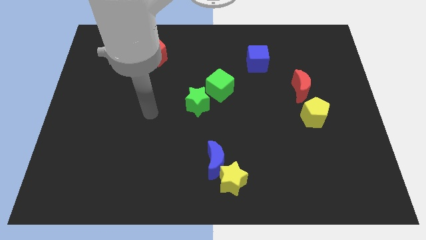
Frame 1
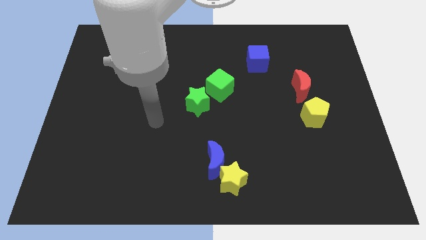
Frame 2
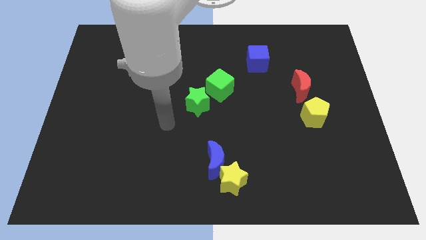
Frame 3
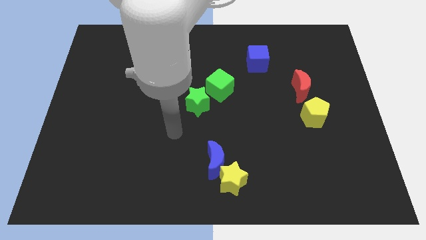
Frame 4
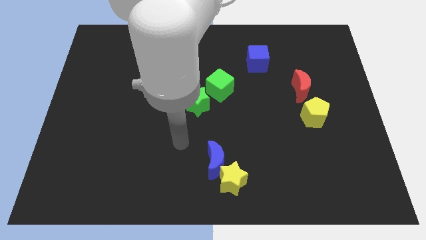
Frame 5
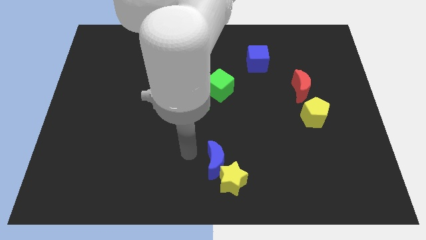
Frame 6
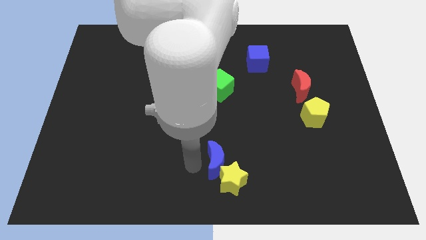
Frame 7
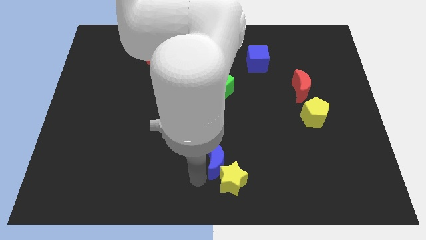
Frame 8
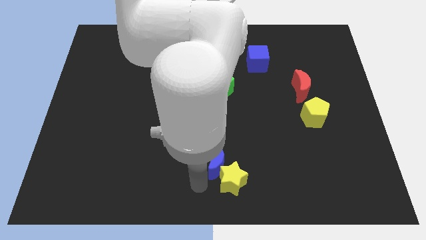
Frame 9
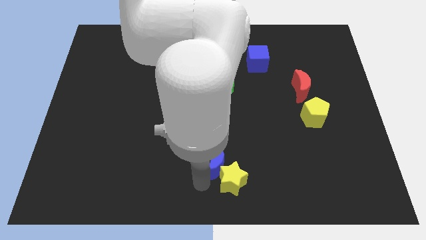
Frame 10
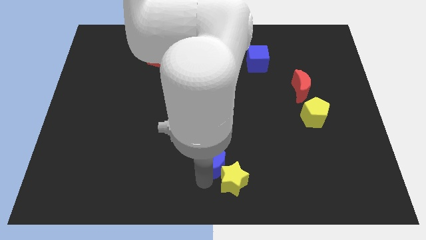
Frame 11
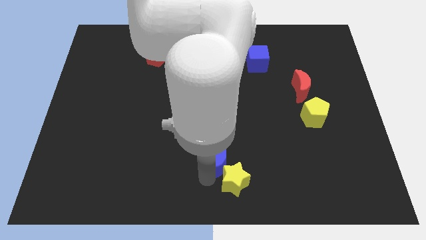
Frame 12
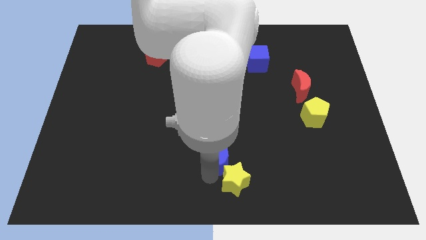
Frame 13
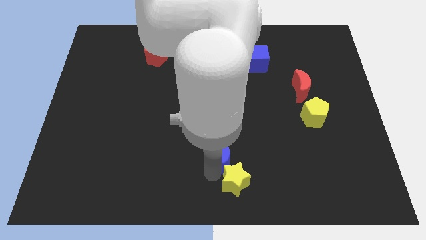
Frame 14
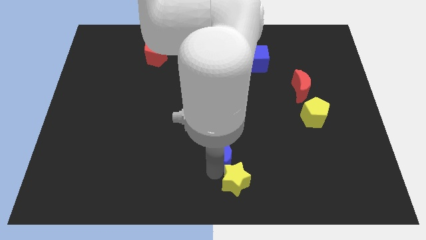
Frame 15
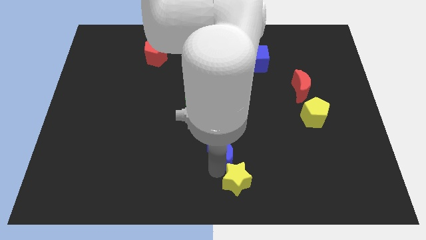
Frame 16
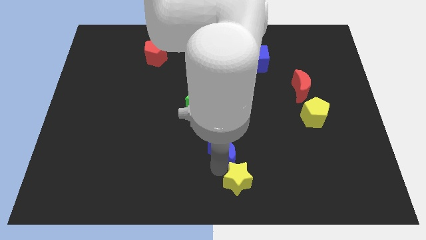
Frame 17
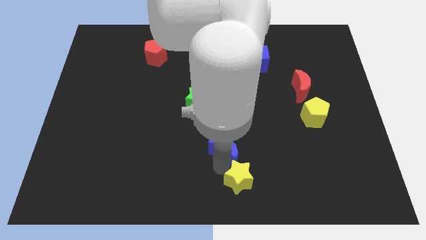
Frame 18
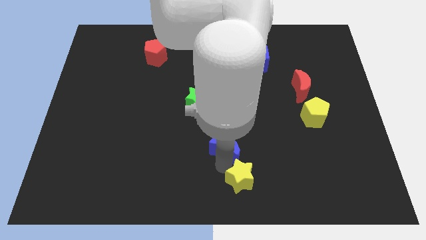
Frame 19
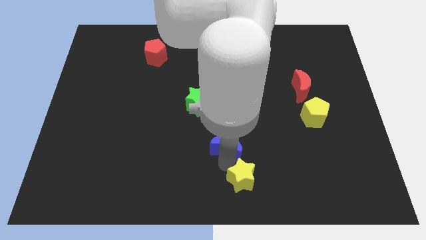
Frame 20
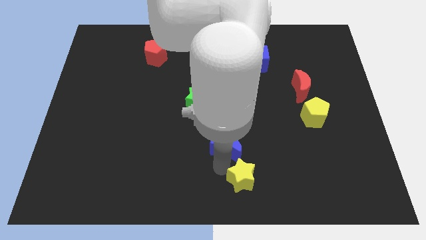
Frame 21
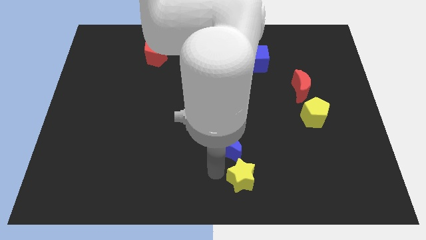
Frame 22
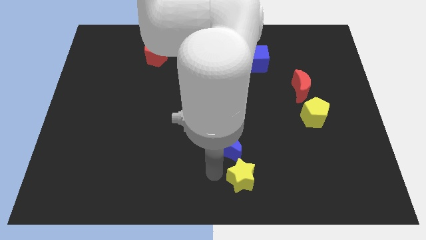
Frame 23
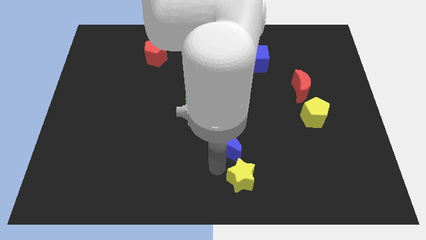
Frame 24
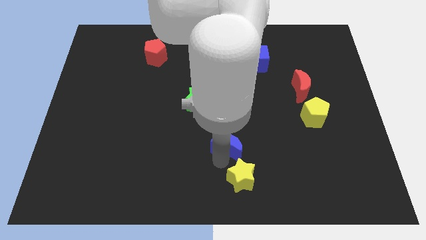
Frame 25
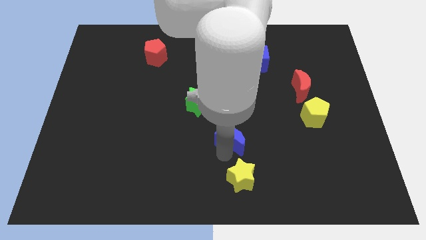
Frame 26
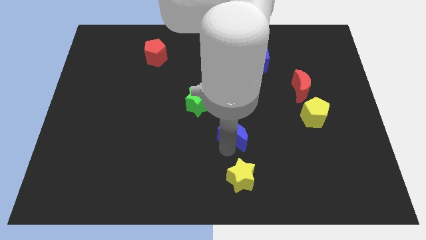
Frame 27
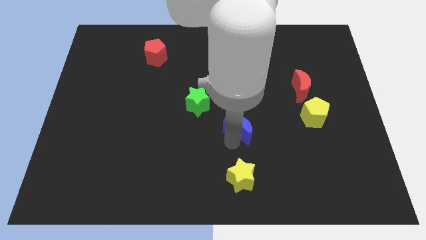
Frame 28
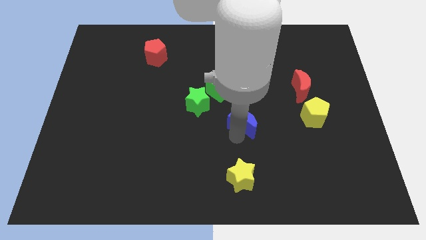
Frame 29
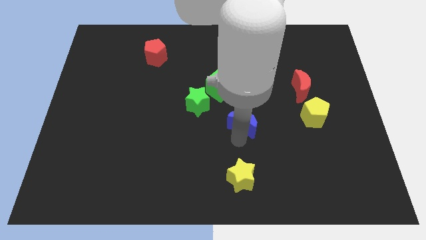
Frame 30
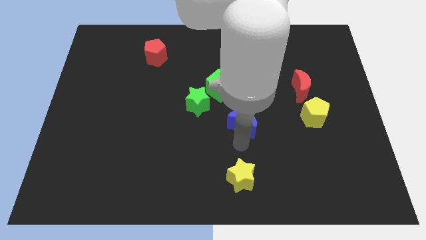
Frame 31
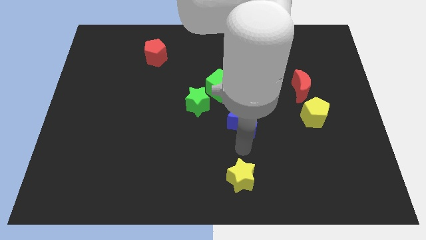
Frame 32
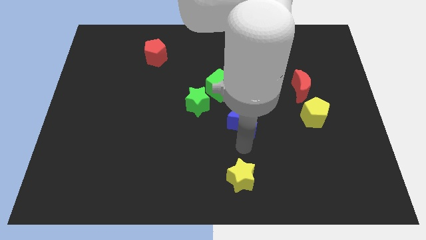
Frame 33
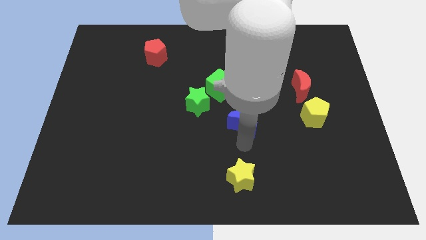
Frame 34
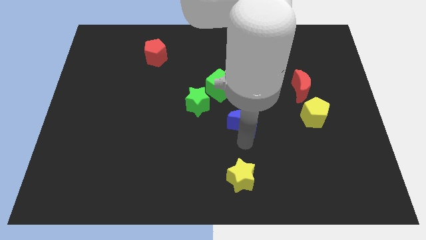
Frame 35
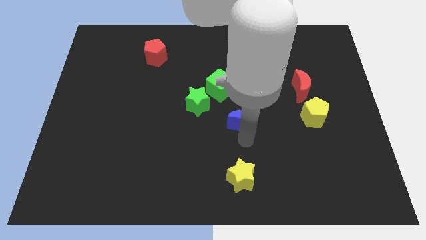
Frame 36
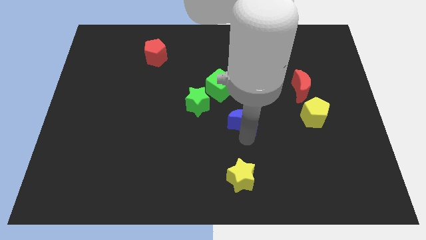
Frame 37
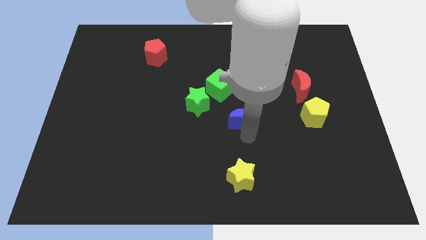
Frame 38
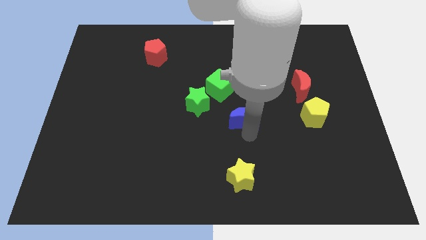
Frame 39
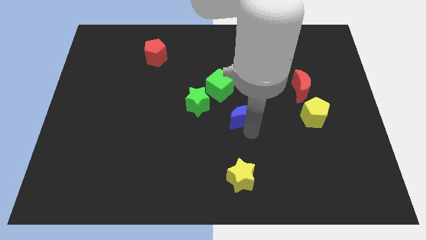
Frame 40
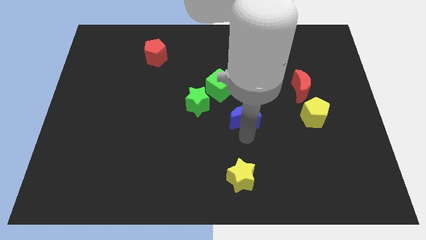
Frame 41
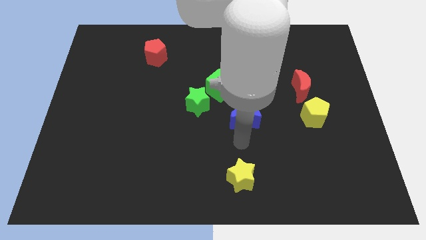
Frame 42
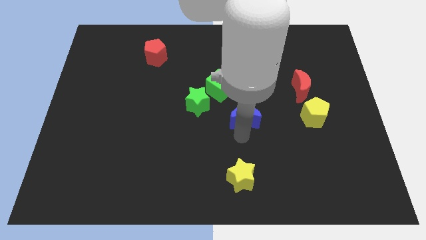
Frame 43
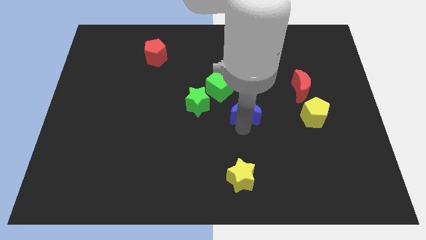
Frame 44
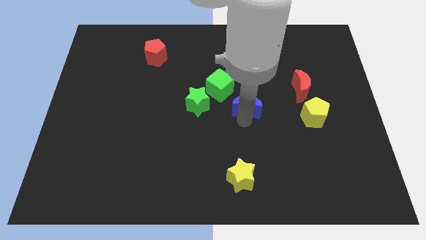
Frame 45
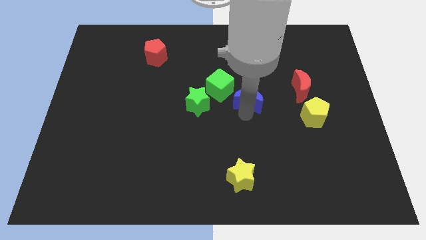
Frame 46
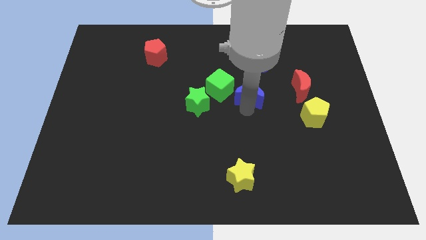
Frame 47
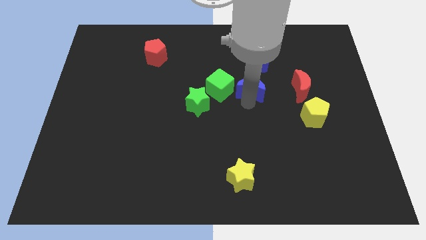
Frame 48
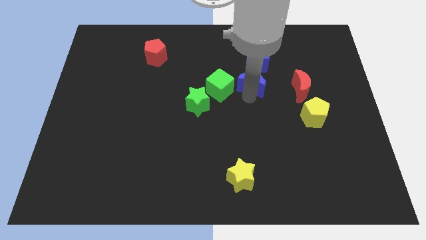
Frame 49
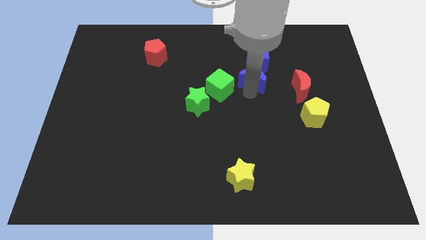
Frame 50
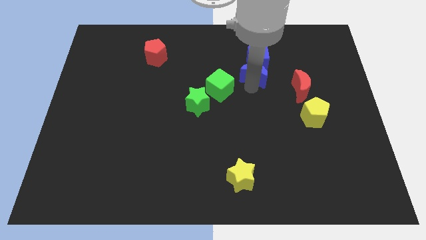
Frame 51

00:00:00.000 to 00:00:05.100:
slide the blue moon next to the blue cube

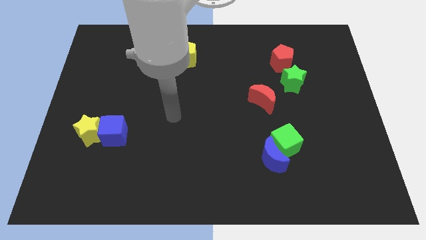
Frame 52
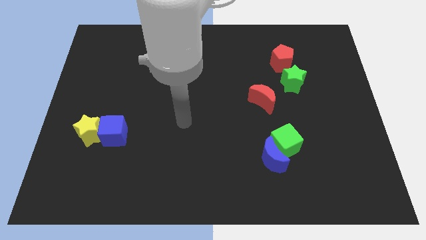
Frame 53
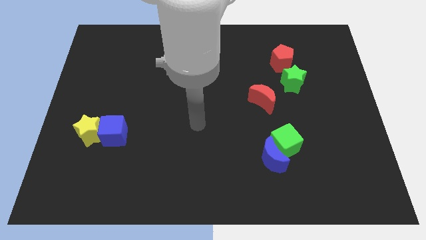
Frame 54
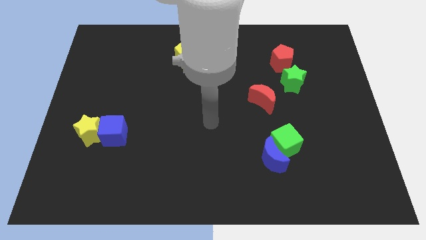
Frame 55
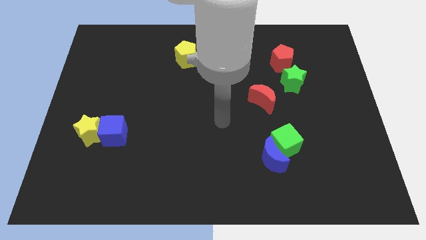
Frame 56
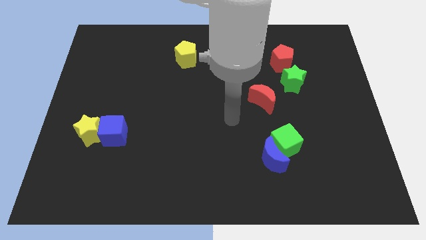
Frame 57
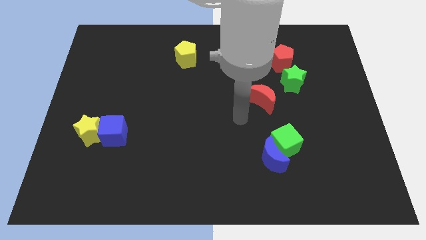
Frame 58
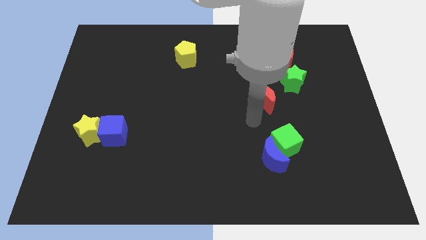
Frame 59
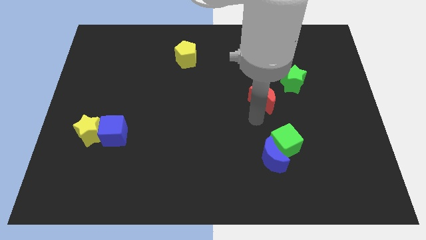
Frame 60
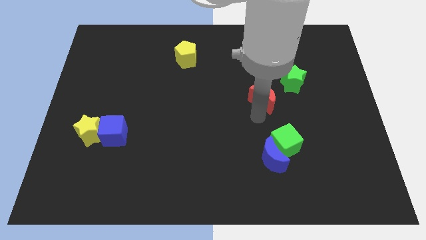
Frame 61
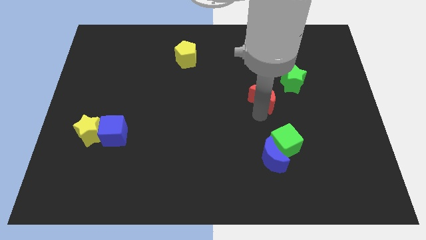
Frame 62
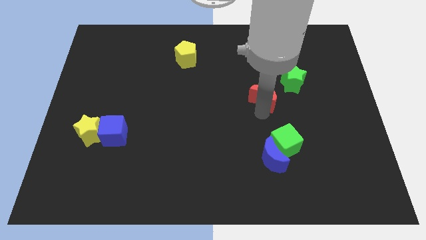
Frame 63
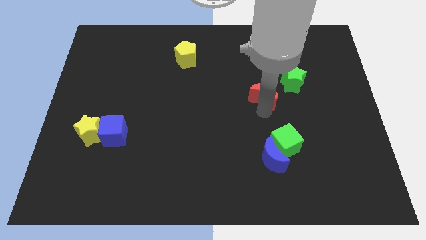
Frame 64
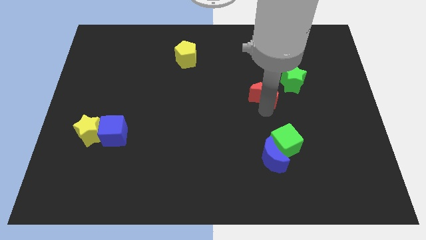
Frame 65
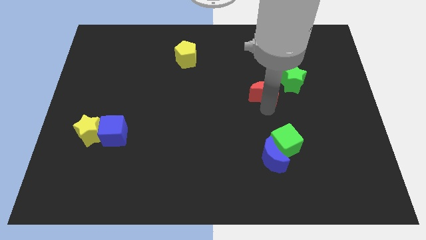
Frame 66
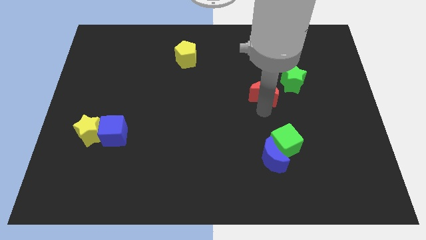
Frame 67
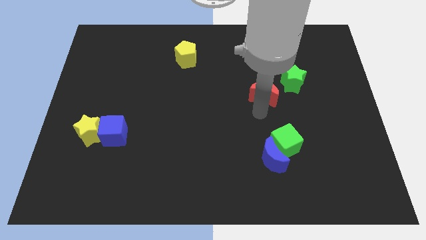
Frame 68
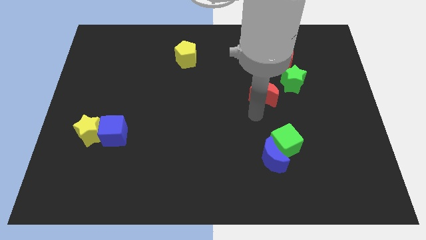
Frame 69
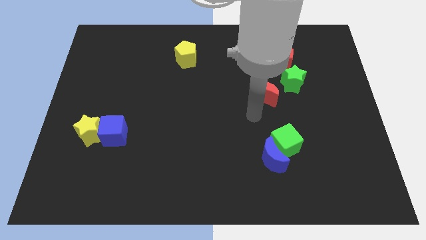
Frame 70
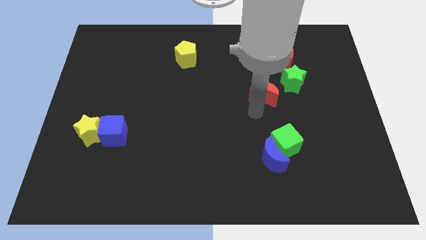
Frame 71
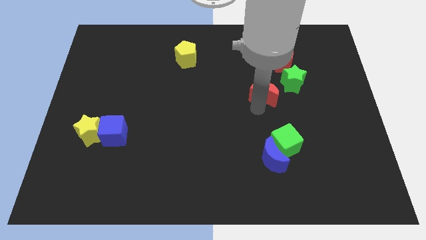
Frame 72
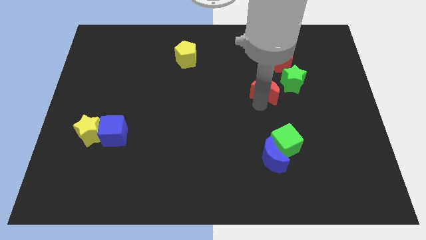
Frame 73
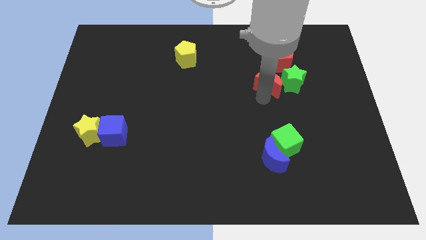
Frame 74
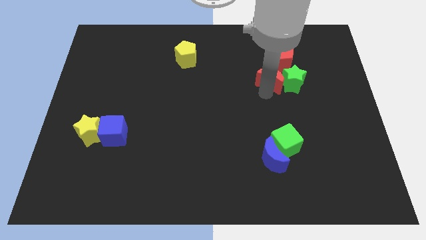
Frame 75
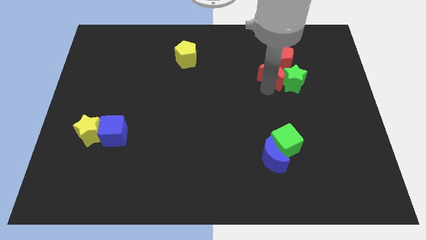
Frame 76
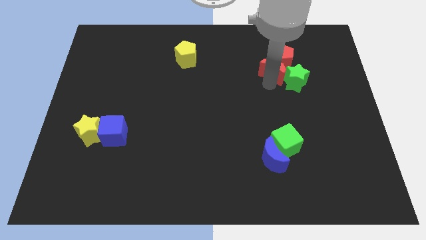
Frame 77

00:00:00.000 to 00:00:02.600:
push the red moon towards the red pentagon
